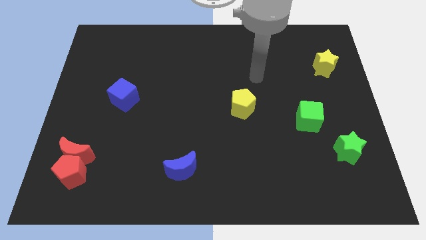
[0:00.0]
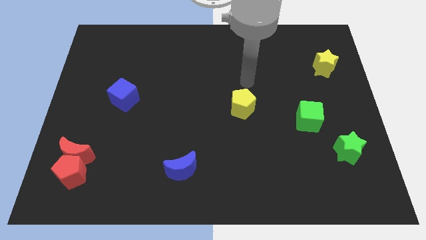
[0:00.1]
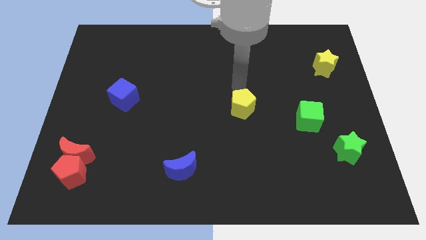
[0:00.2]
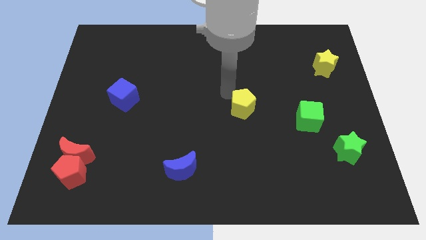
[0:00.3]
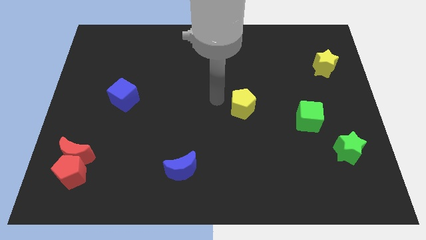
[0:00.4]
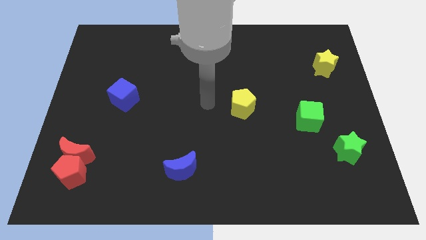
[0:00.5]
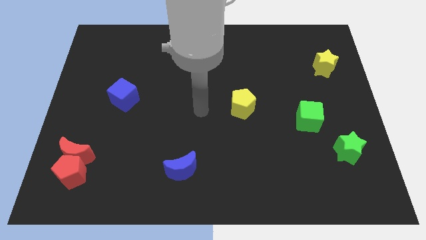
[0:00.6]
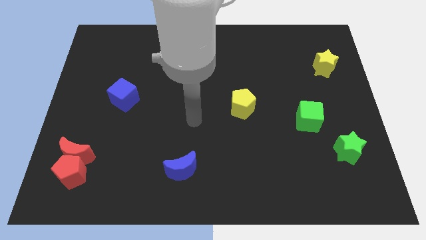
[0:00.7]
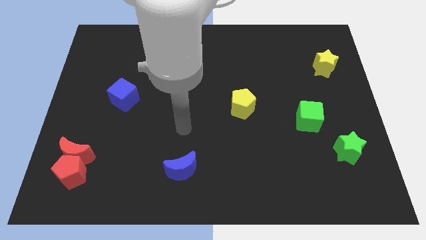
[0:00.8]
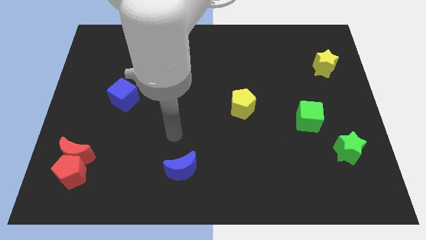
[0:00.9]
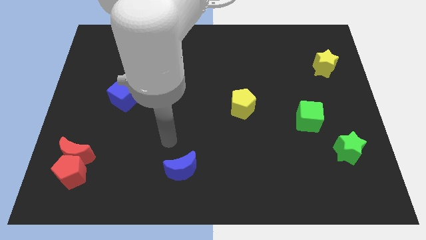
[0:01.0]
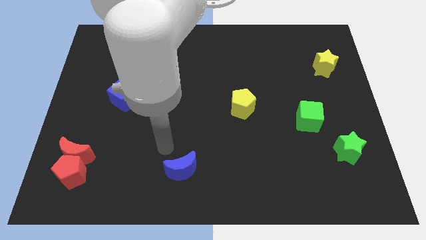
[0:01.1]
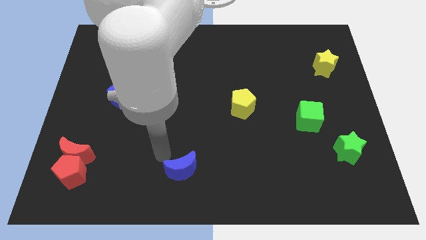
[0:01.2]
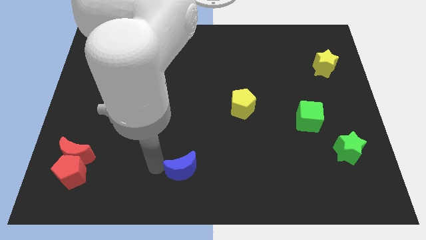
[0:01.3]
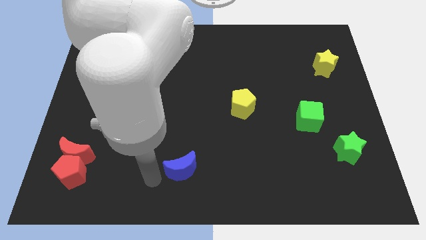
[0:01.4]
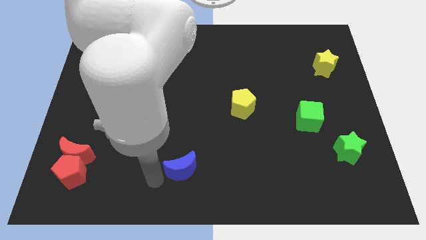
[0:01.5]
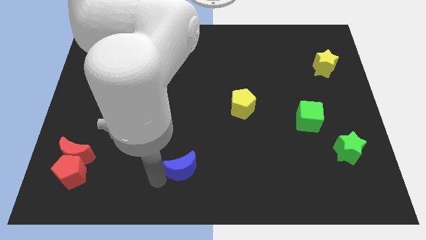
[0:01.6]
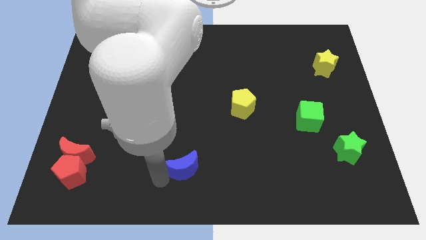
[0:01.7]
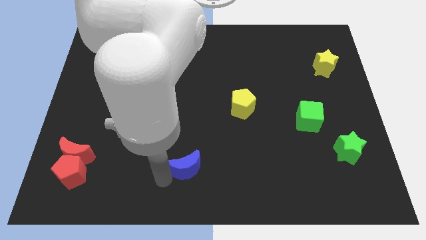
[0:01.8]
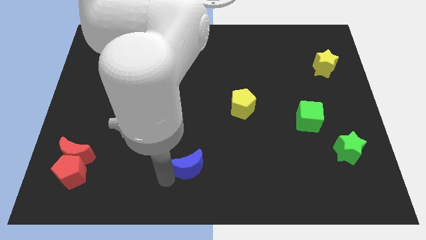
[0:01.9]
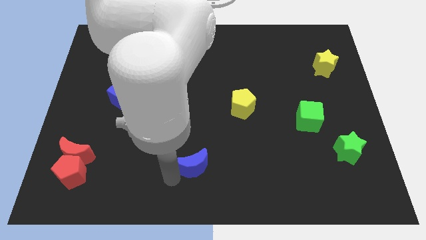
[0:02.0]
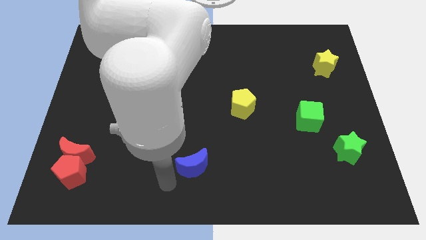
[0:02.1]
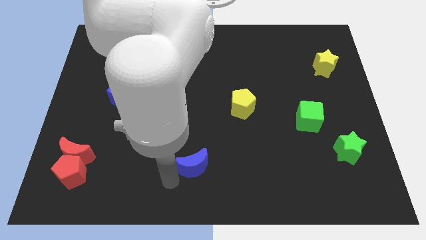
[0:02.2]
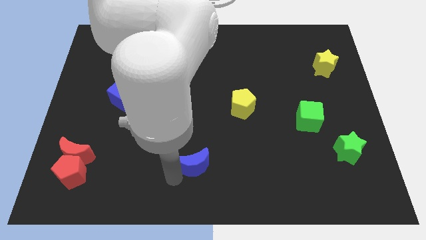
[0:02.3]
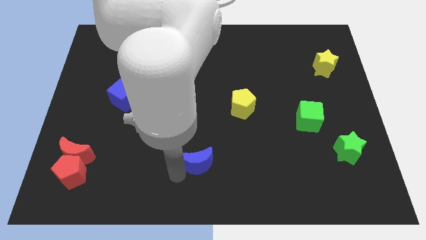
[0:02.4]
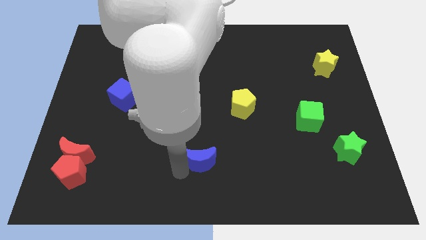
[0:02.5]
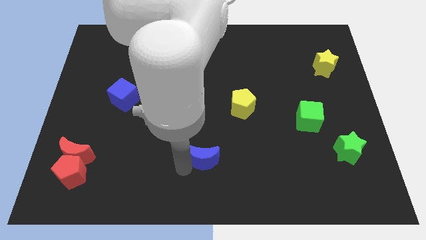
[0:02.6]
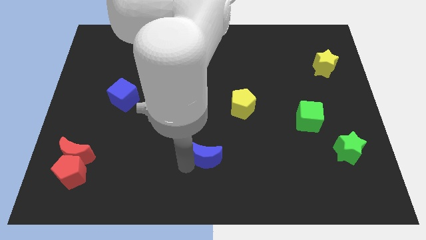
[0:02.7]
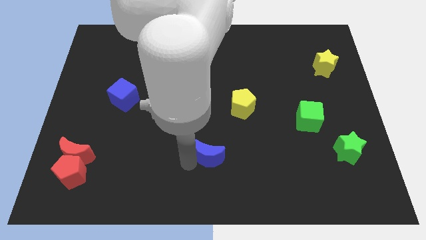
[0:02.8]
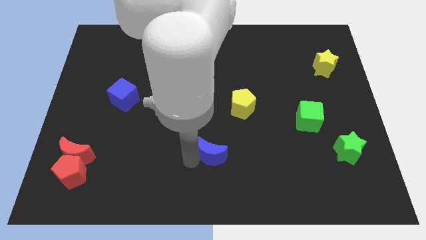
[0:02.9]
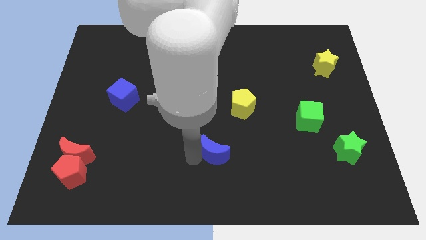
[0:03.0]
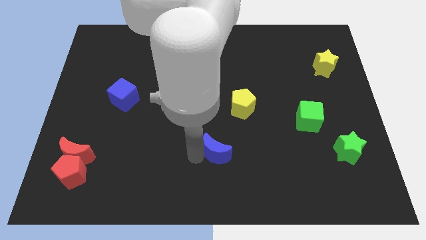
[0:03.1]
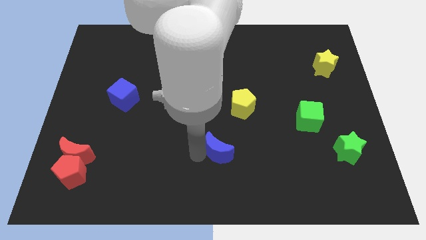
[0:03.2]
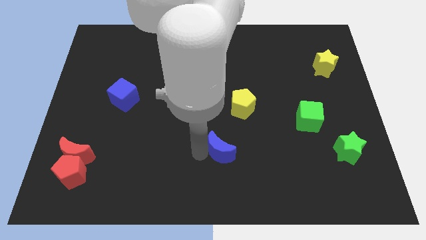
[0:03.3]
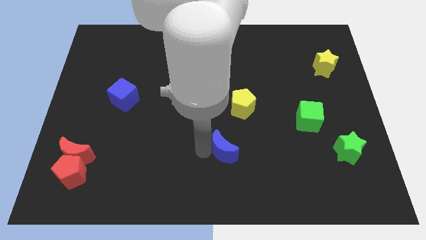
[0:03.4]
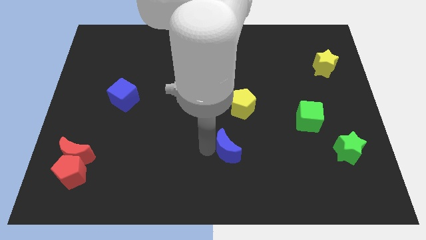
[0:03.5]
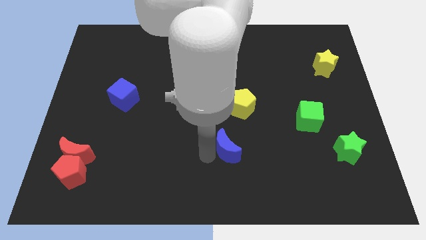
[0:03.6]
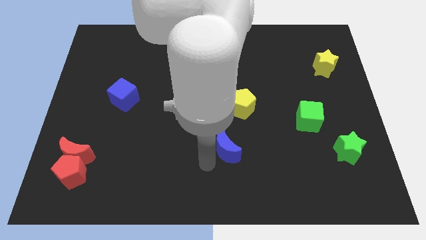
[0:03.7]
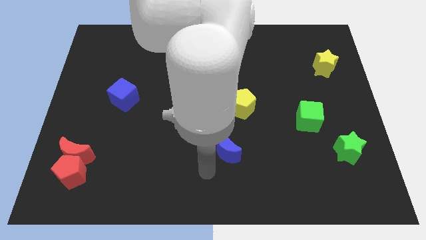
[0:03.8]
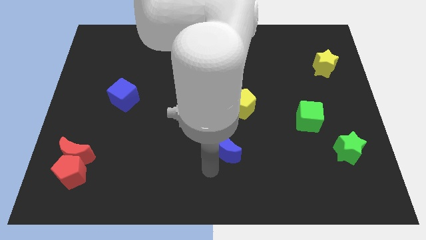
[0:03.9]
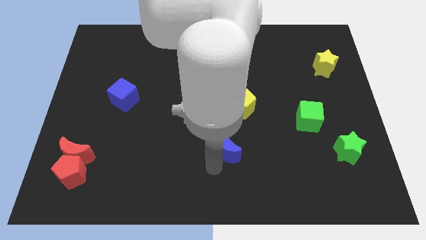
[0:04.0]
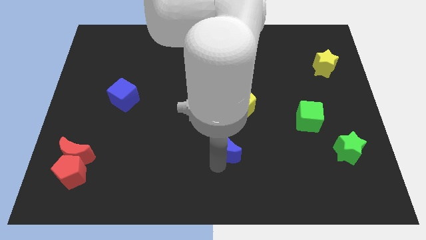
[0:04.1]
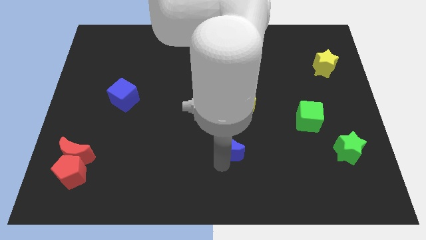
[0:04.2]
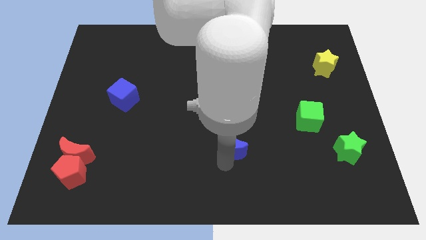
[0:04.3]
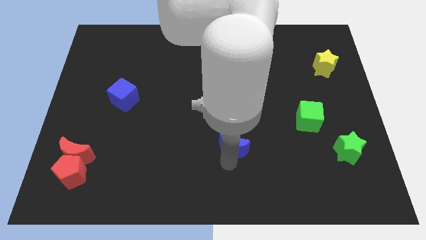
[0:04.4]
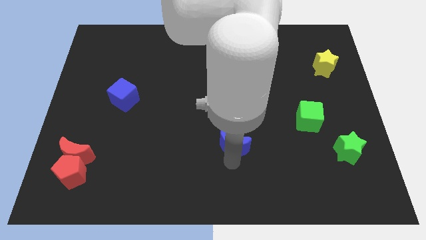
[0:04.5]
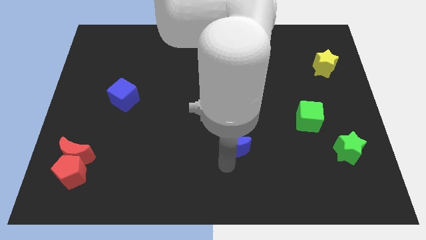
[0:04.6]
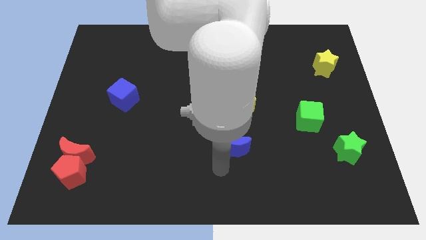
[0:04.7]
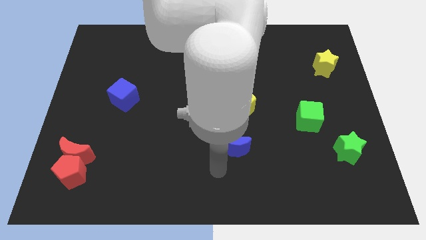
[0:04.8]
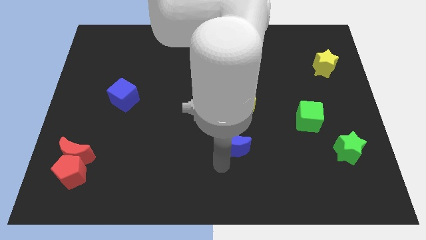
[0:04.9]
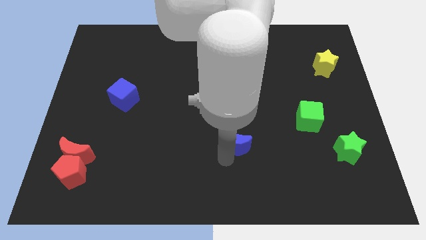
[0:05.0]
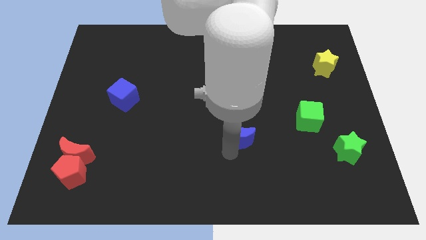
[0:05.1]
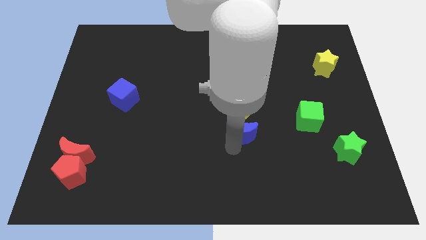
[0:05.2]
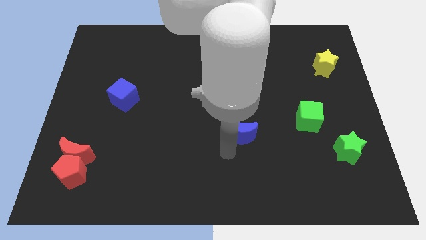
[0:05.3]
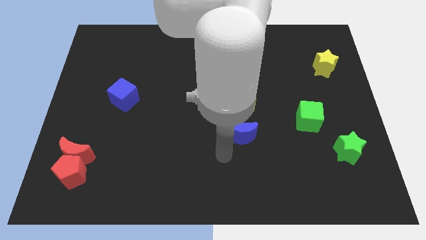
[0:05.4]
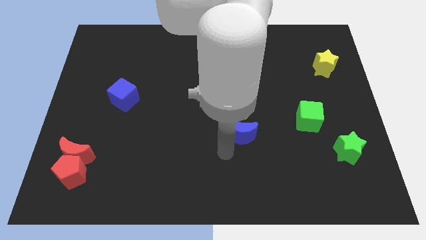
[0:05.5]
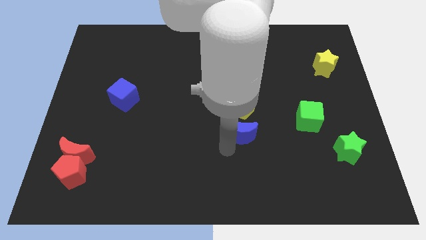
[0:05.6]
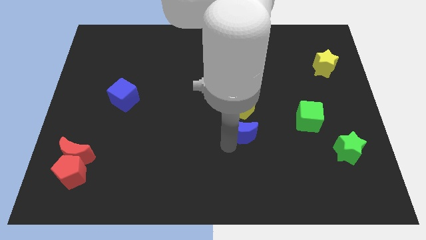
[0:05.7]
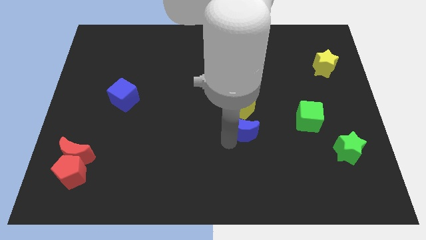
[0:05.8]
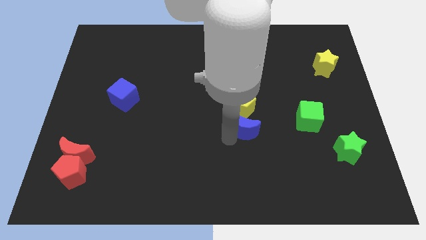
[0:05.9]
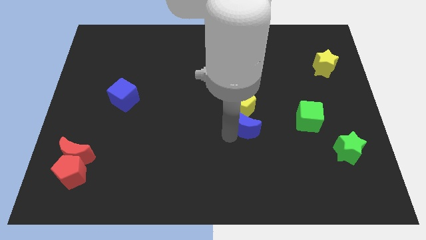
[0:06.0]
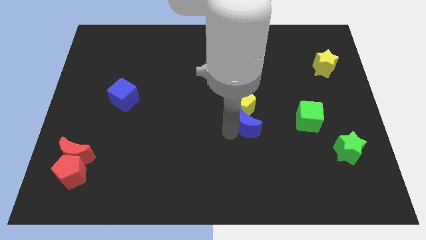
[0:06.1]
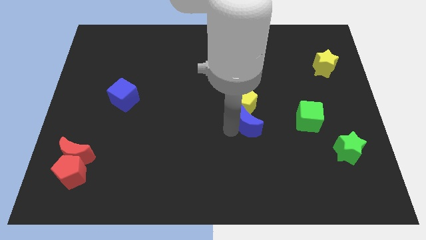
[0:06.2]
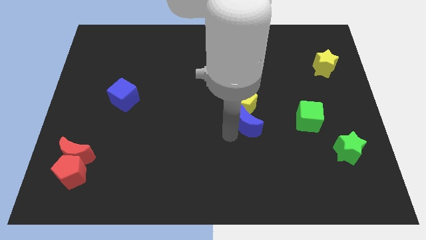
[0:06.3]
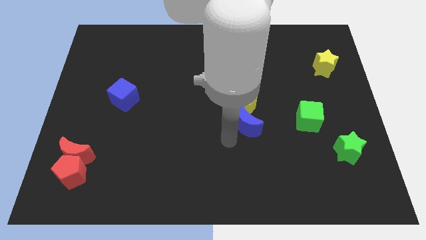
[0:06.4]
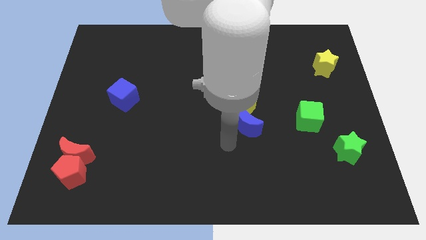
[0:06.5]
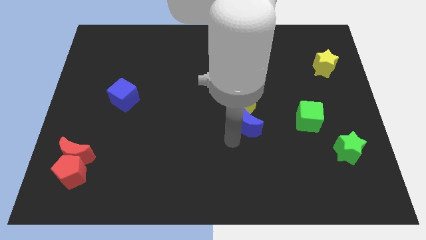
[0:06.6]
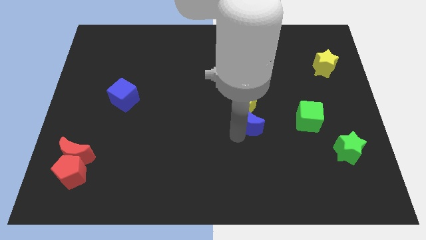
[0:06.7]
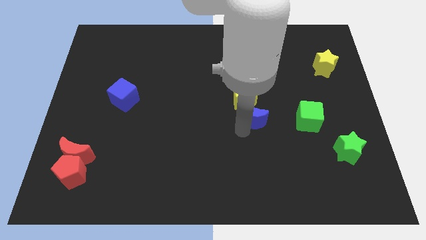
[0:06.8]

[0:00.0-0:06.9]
move the blue moon up and to the right

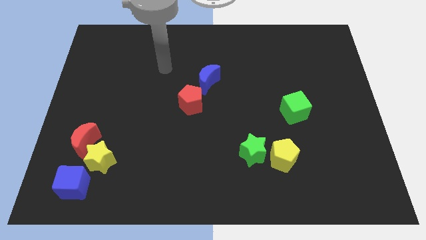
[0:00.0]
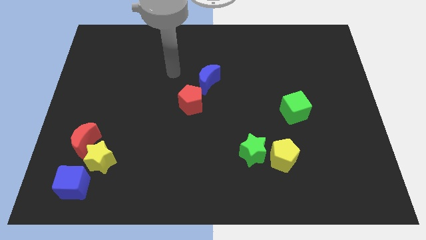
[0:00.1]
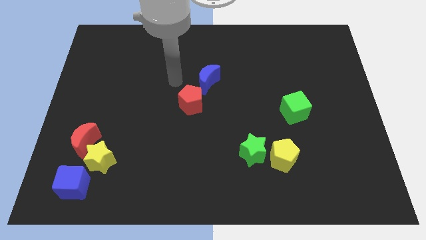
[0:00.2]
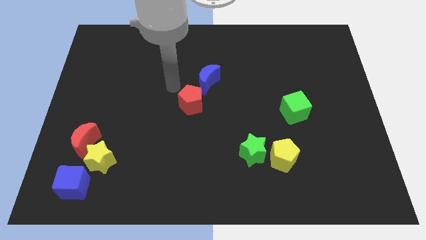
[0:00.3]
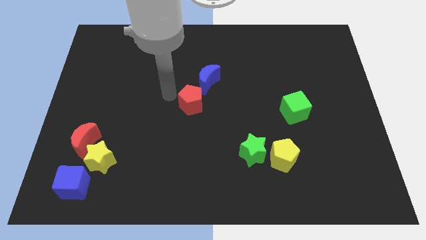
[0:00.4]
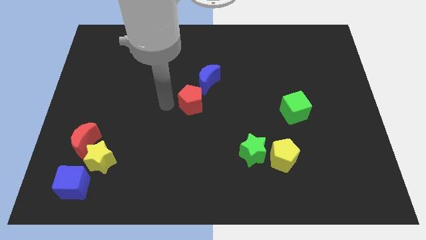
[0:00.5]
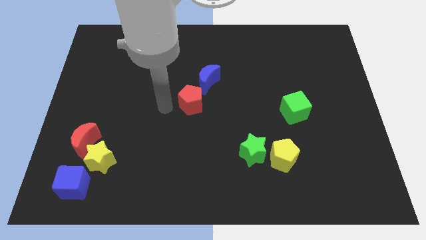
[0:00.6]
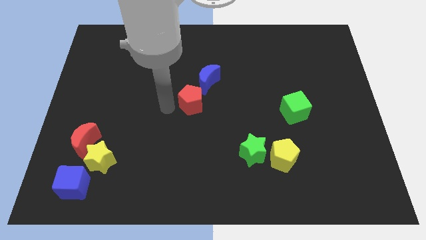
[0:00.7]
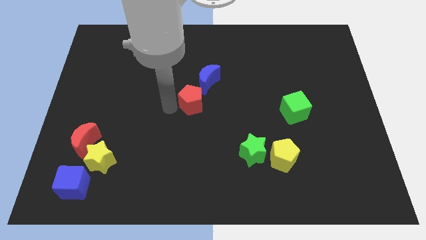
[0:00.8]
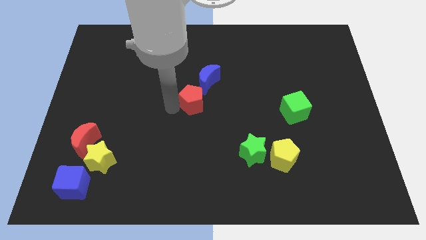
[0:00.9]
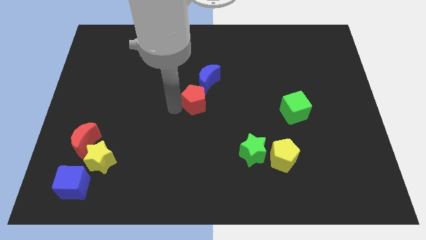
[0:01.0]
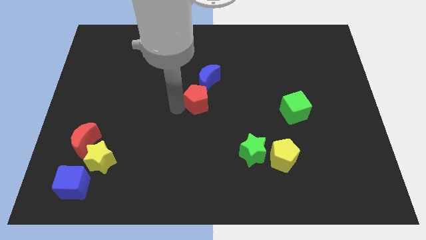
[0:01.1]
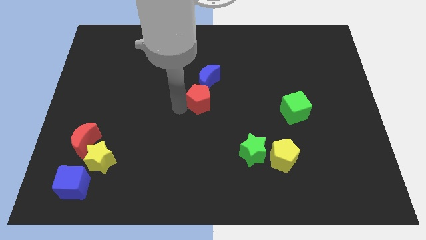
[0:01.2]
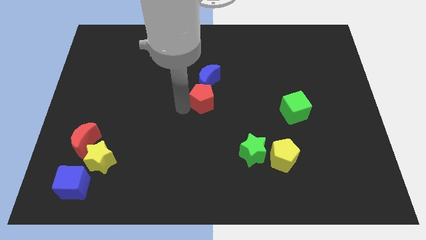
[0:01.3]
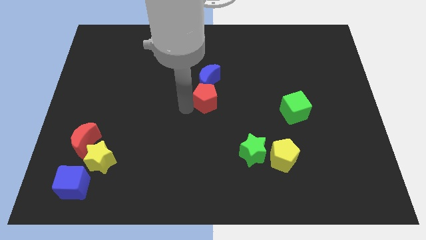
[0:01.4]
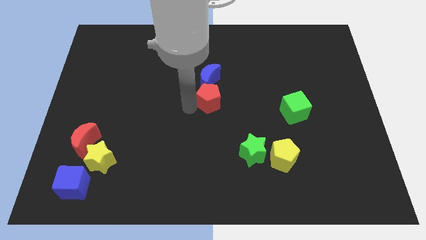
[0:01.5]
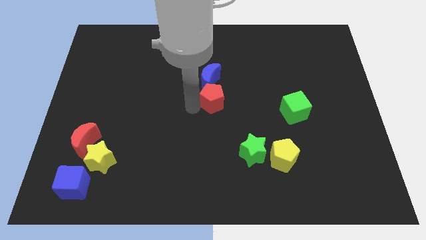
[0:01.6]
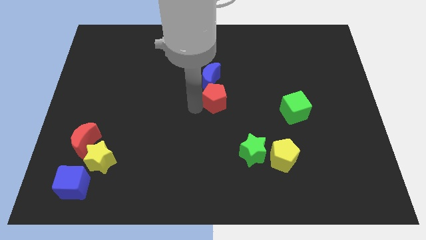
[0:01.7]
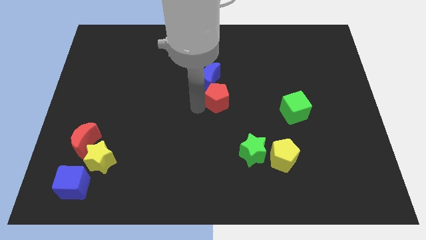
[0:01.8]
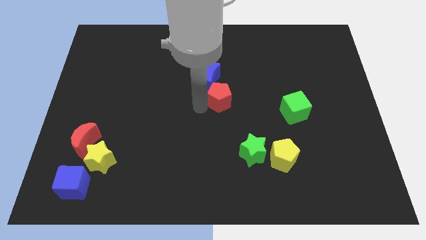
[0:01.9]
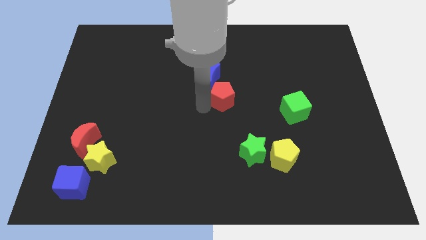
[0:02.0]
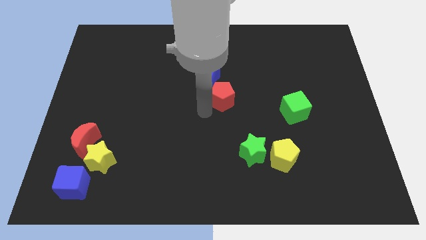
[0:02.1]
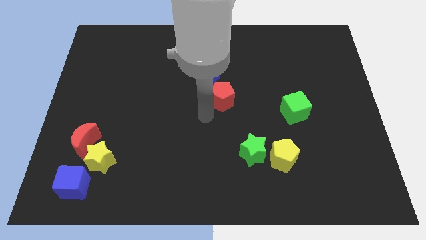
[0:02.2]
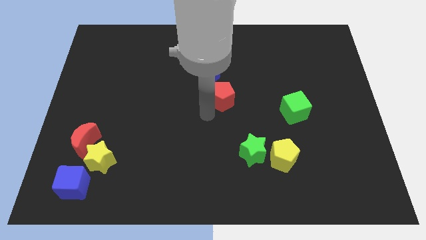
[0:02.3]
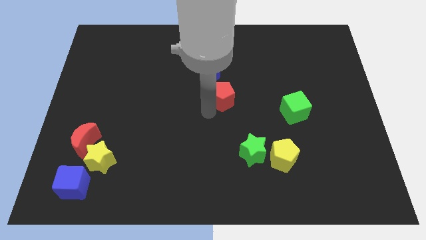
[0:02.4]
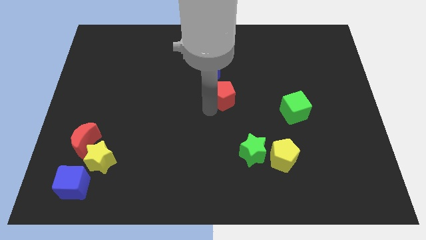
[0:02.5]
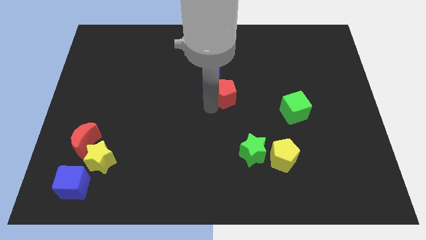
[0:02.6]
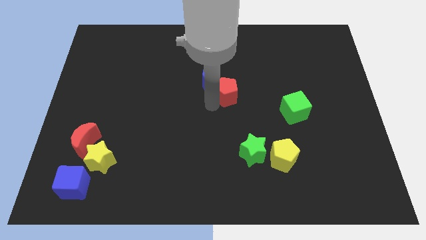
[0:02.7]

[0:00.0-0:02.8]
slide the red pentagon a little bit up and to the right
